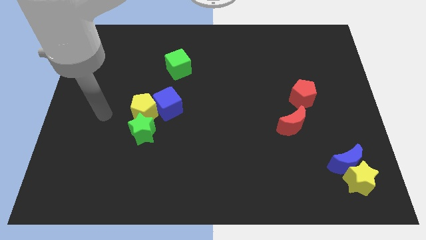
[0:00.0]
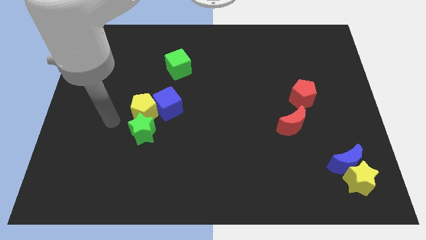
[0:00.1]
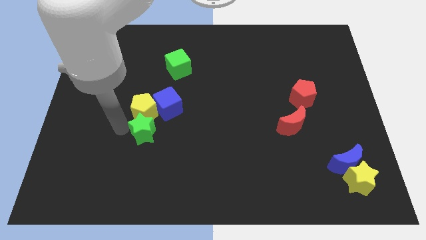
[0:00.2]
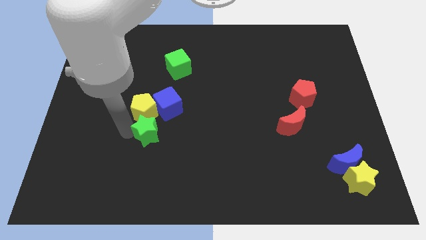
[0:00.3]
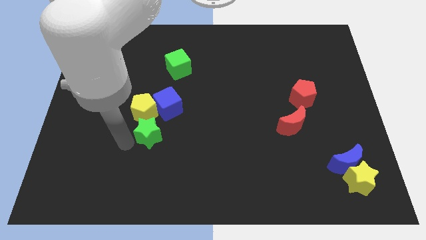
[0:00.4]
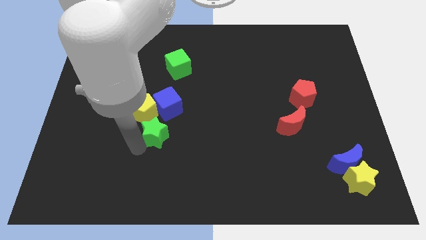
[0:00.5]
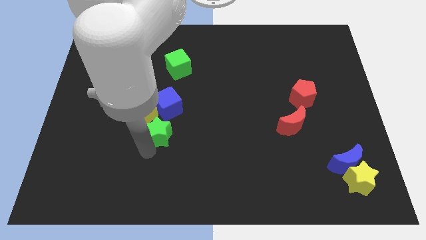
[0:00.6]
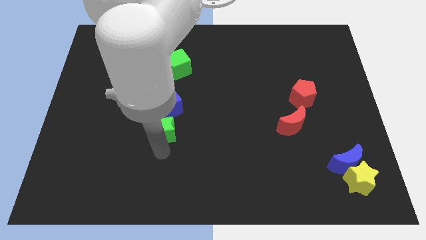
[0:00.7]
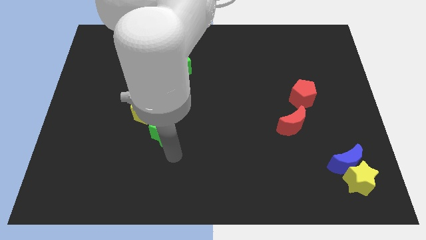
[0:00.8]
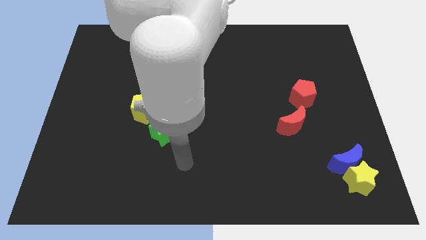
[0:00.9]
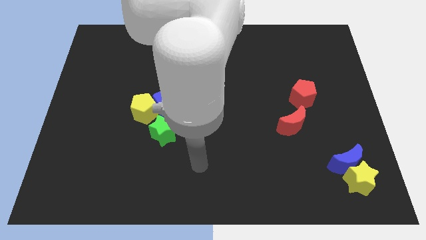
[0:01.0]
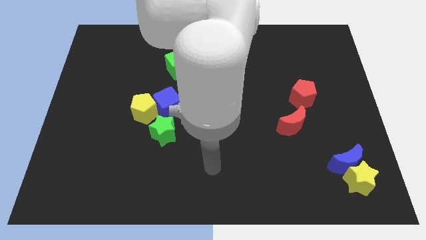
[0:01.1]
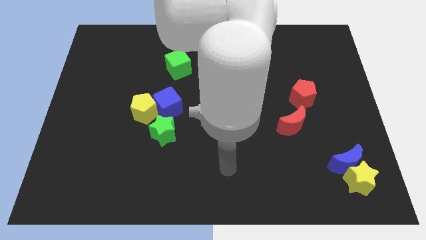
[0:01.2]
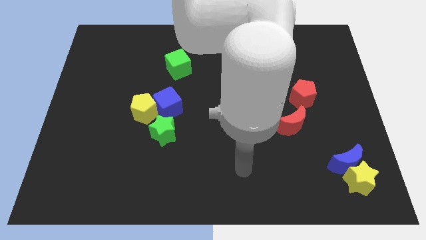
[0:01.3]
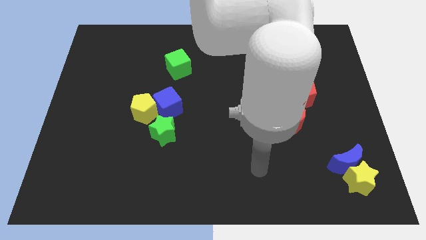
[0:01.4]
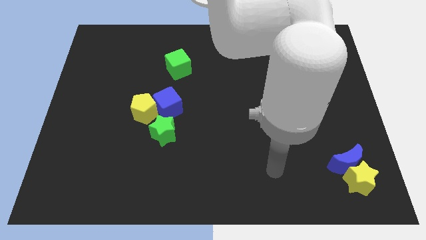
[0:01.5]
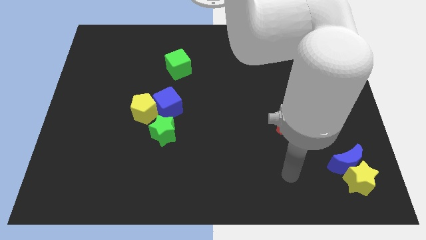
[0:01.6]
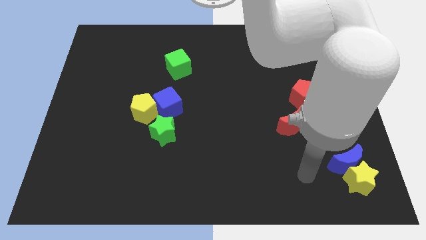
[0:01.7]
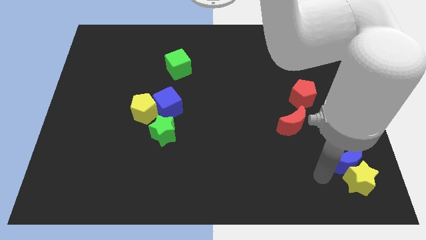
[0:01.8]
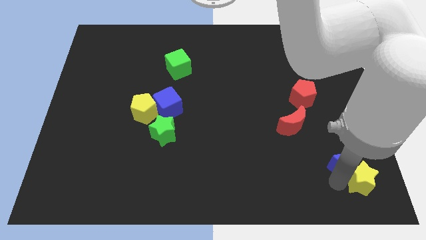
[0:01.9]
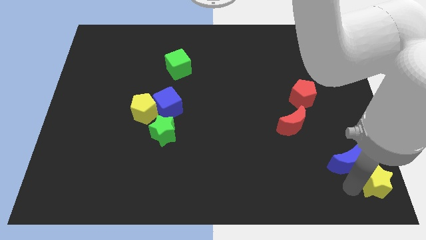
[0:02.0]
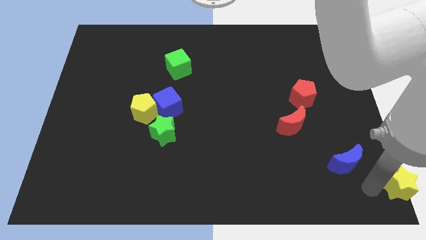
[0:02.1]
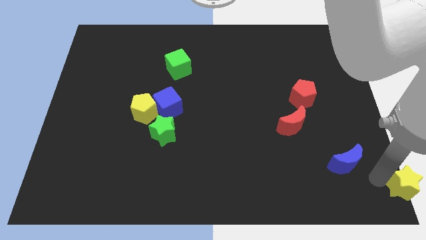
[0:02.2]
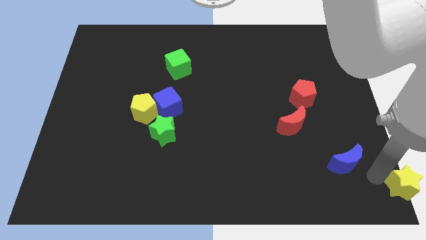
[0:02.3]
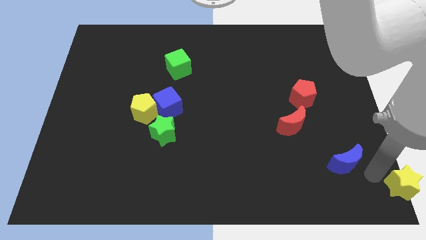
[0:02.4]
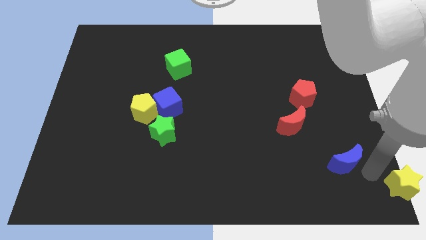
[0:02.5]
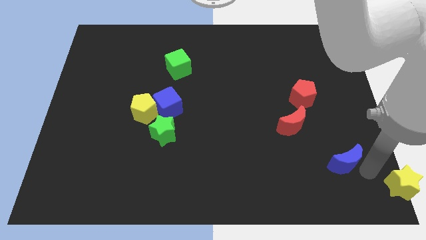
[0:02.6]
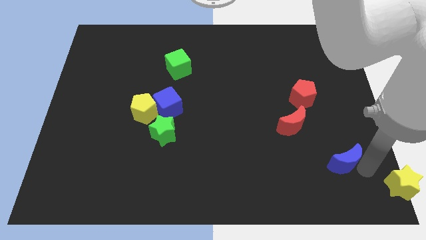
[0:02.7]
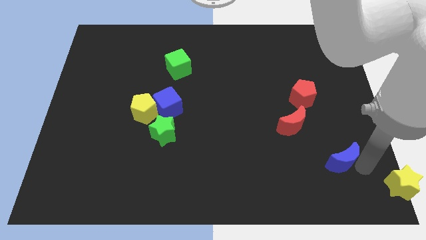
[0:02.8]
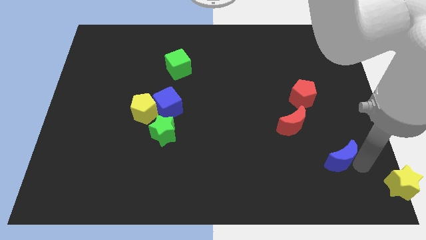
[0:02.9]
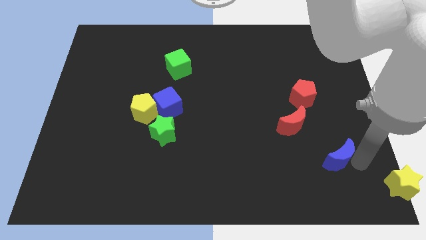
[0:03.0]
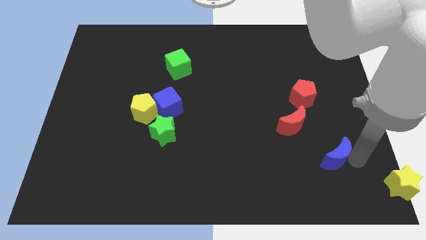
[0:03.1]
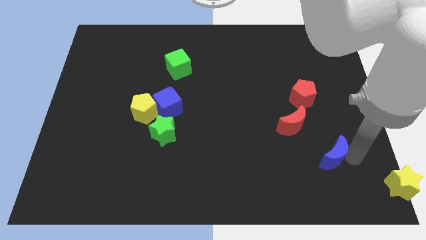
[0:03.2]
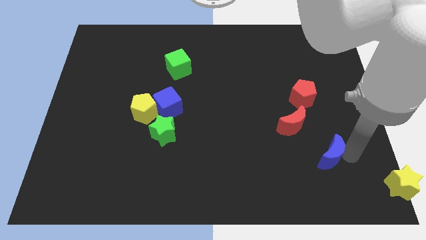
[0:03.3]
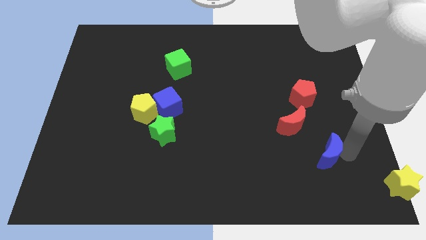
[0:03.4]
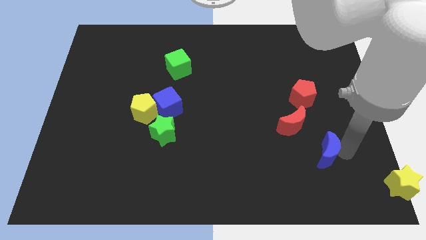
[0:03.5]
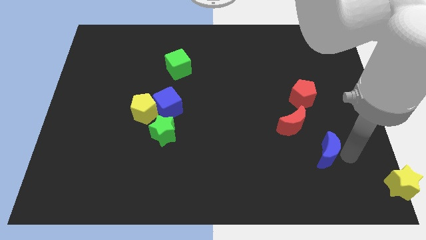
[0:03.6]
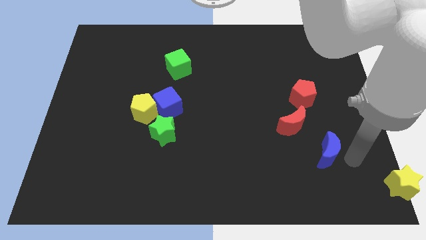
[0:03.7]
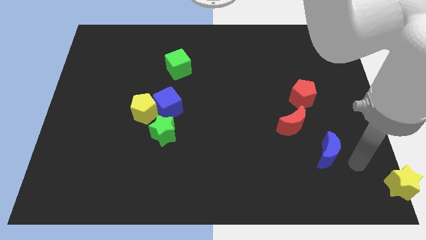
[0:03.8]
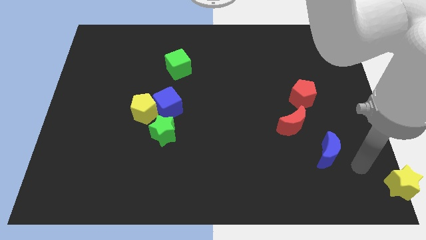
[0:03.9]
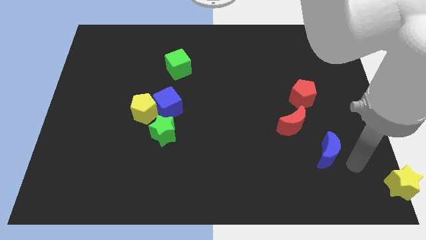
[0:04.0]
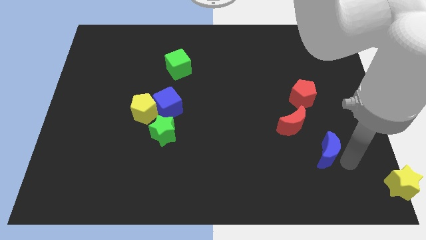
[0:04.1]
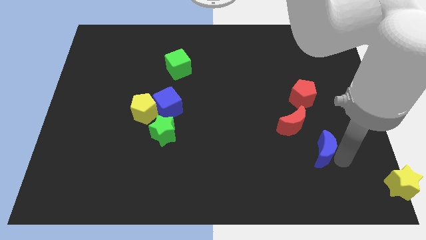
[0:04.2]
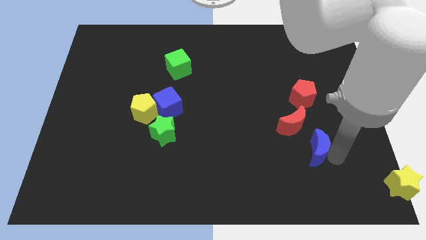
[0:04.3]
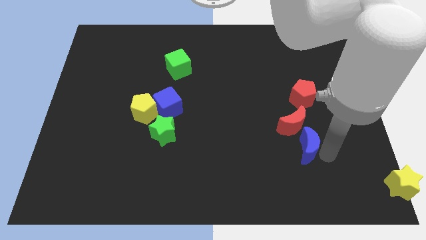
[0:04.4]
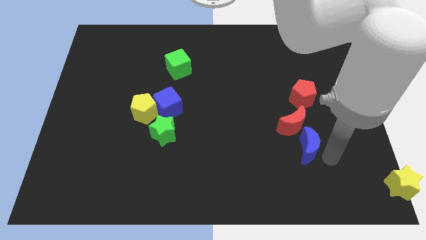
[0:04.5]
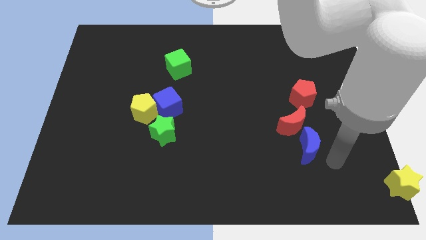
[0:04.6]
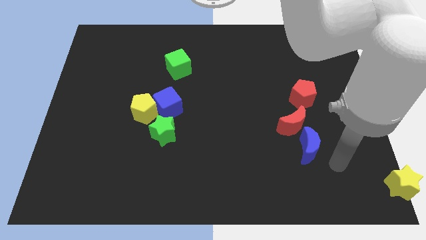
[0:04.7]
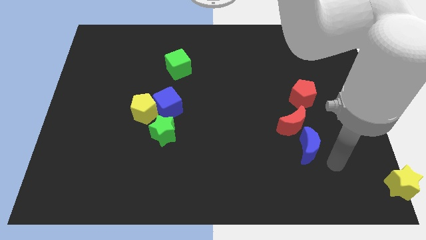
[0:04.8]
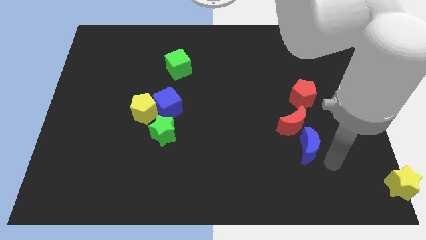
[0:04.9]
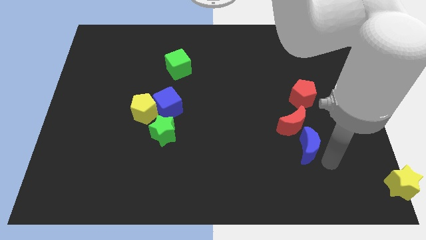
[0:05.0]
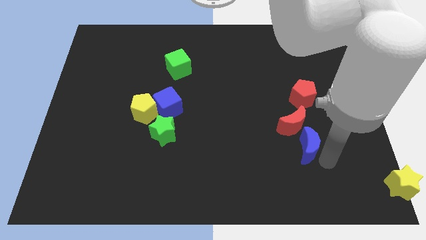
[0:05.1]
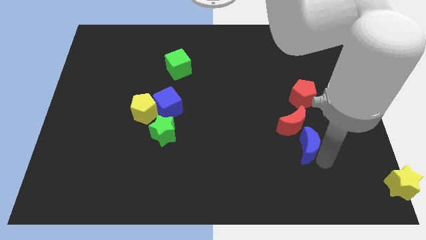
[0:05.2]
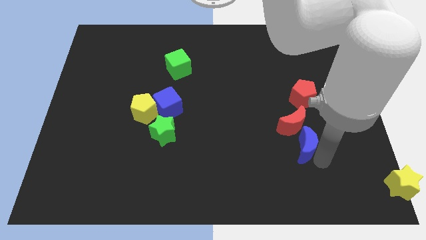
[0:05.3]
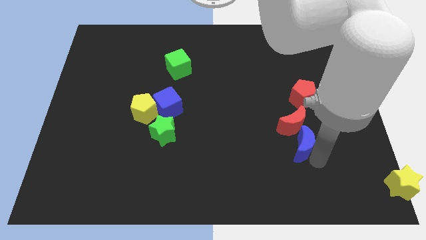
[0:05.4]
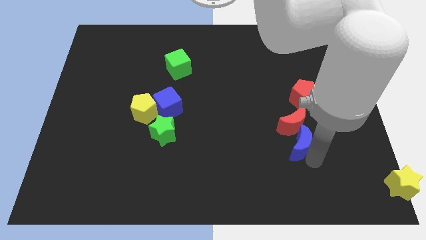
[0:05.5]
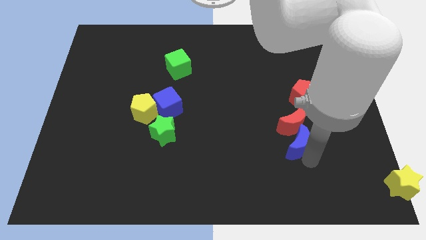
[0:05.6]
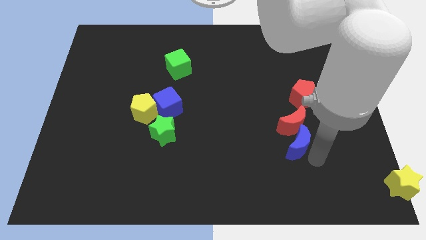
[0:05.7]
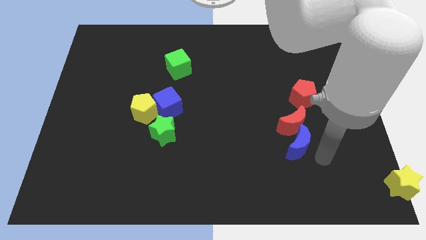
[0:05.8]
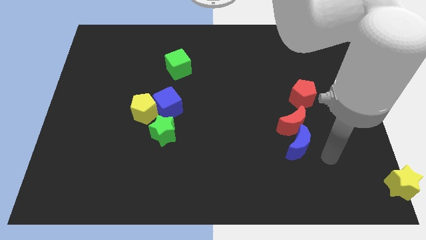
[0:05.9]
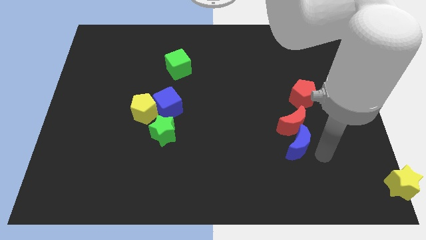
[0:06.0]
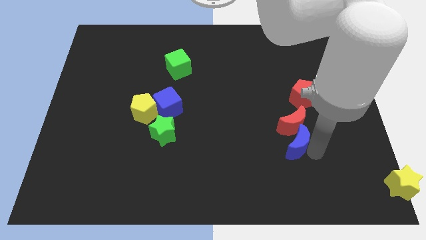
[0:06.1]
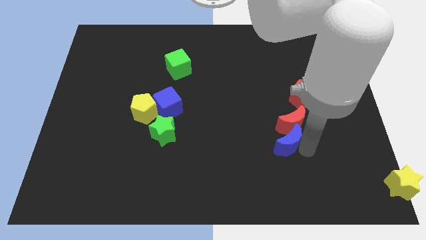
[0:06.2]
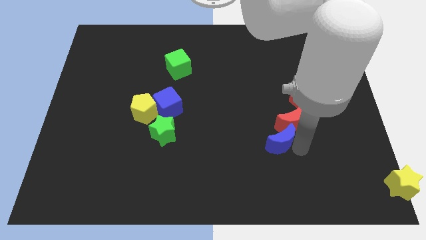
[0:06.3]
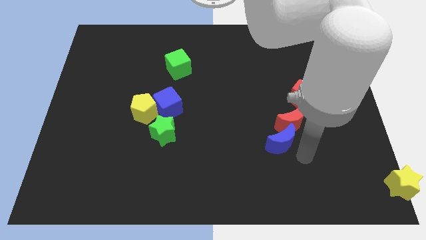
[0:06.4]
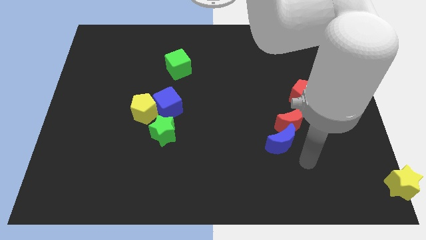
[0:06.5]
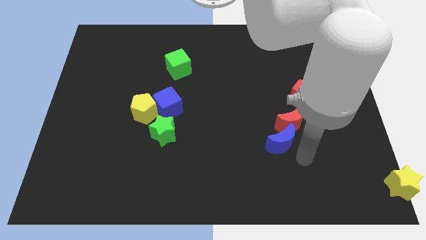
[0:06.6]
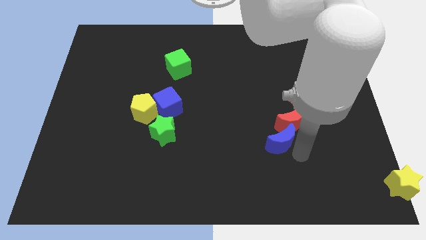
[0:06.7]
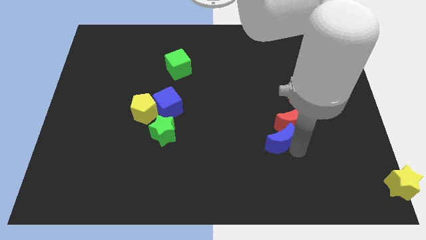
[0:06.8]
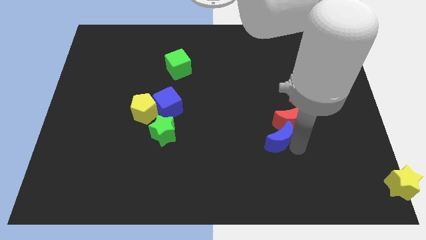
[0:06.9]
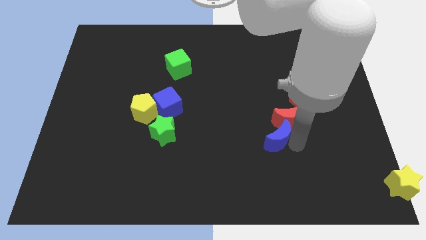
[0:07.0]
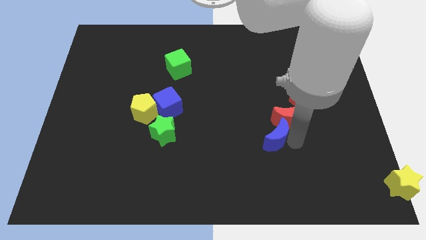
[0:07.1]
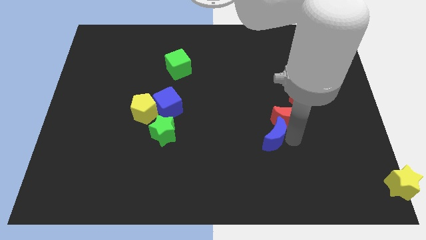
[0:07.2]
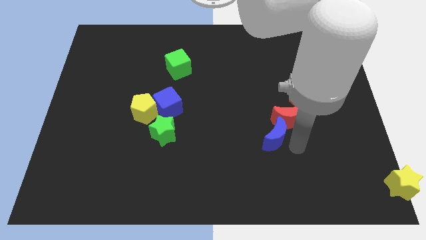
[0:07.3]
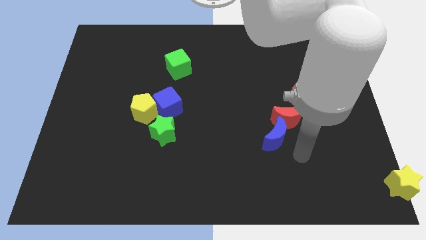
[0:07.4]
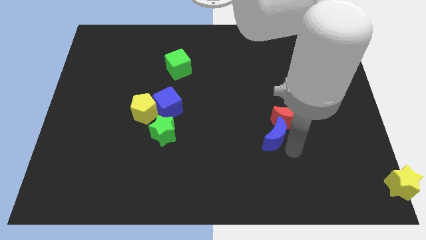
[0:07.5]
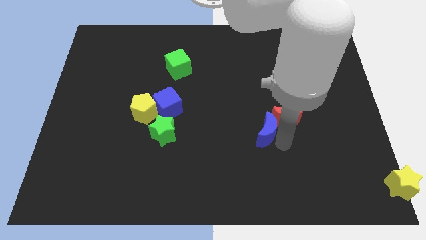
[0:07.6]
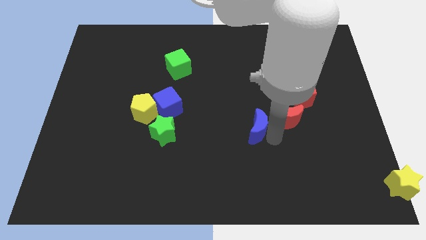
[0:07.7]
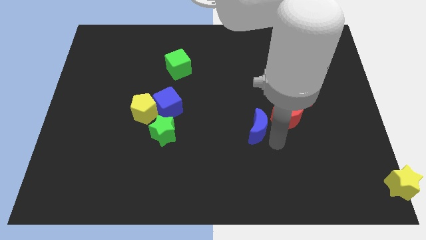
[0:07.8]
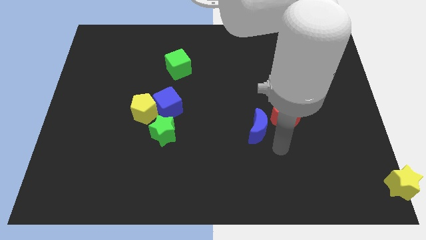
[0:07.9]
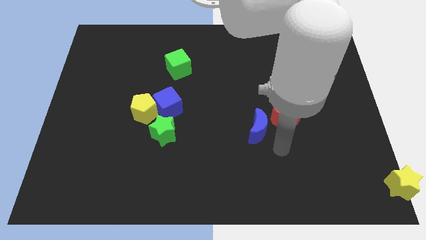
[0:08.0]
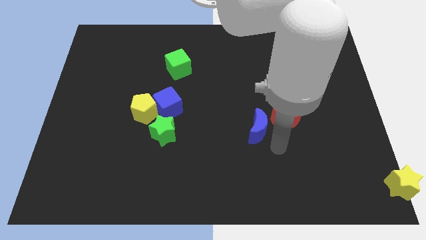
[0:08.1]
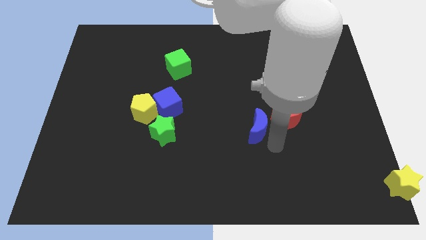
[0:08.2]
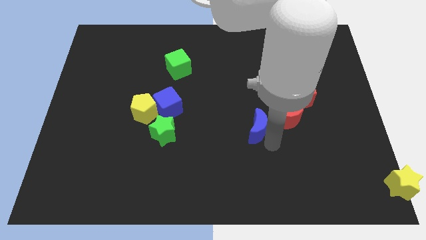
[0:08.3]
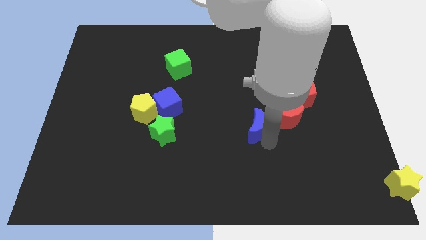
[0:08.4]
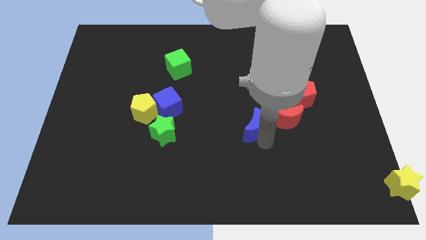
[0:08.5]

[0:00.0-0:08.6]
slide the blue moon to the middle
